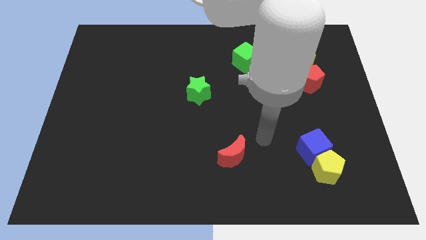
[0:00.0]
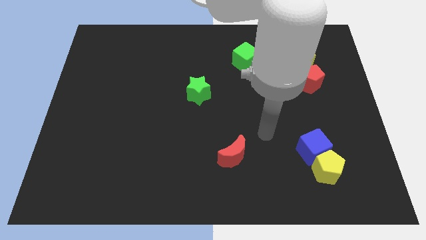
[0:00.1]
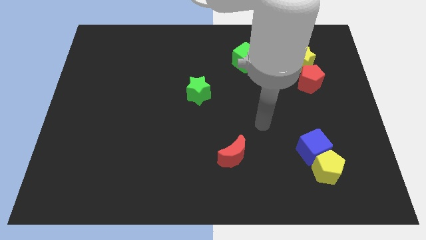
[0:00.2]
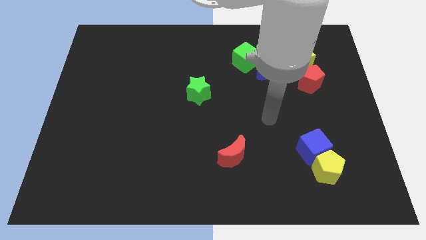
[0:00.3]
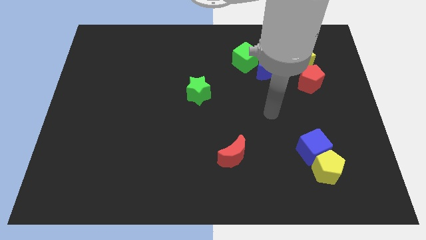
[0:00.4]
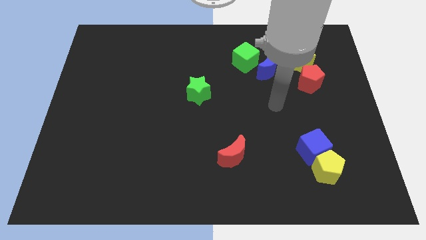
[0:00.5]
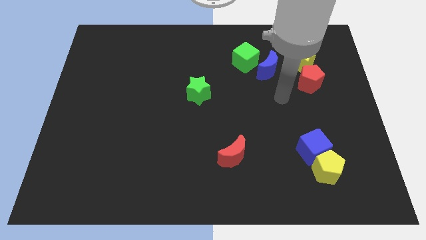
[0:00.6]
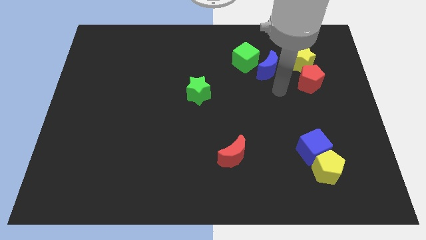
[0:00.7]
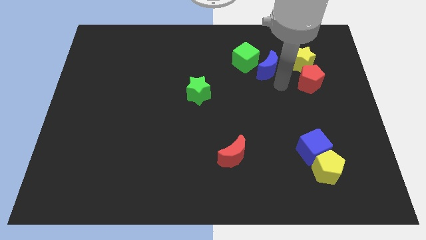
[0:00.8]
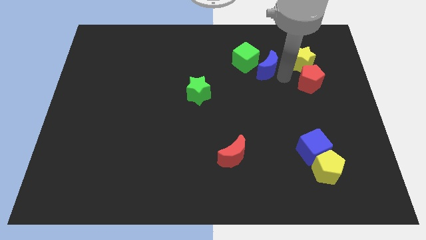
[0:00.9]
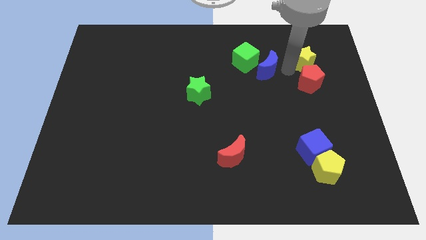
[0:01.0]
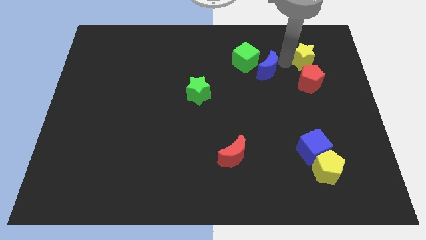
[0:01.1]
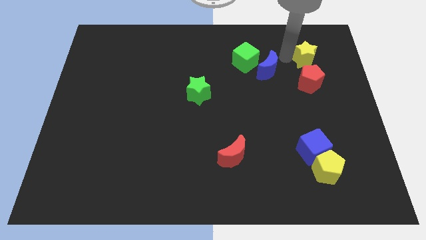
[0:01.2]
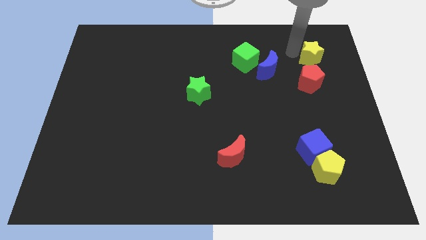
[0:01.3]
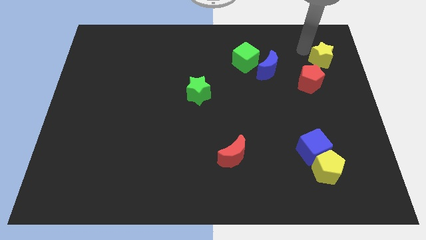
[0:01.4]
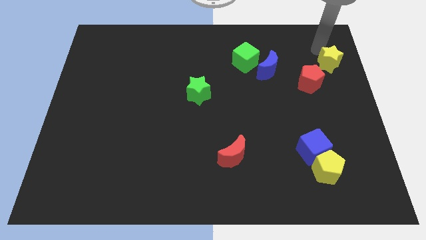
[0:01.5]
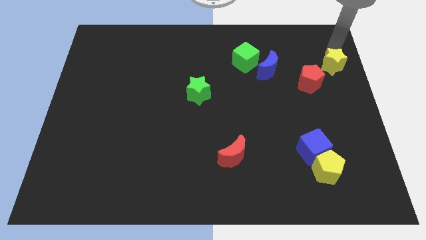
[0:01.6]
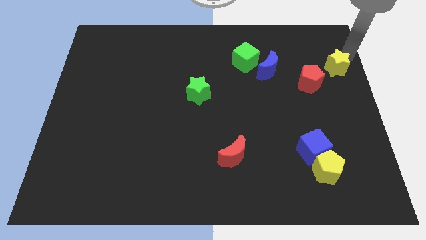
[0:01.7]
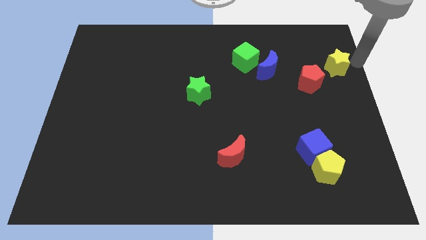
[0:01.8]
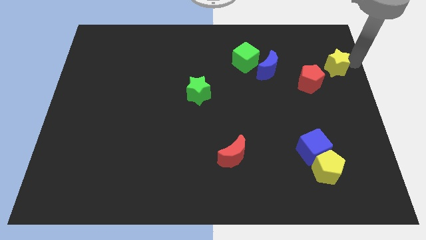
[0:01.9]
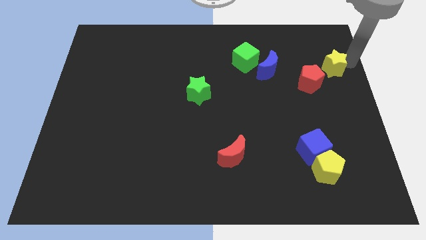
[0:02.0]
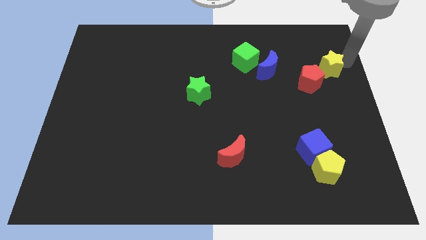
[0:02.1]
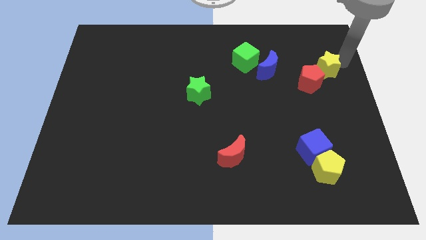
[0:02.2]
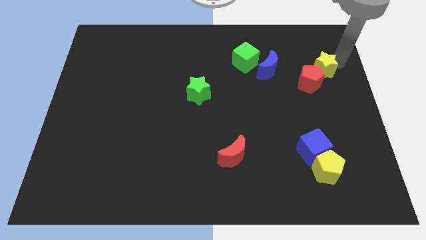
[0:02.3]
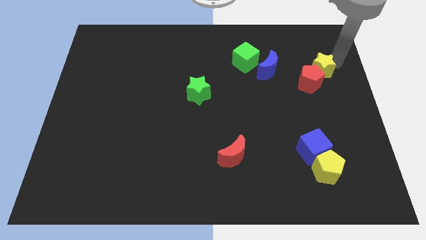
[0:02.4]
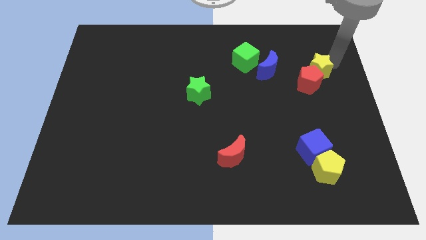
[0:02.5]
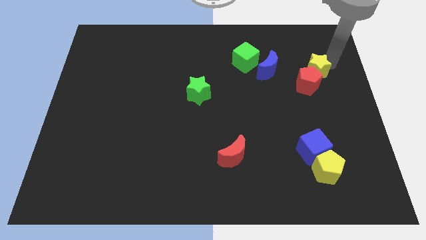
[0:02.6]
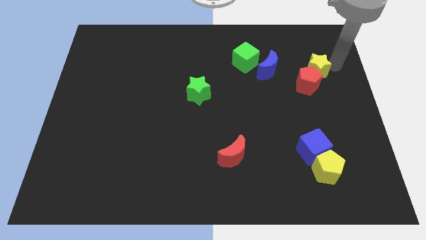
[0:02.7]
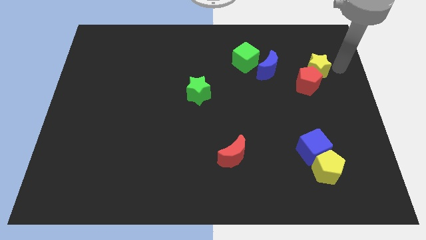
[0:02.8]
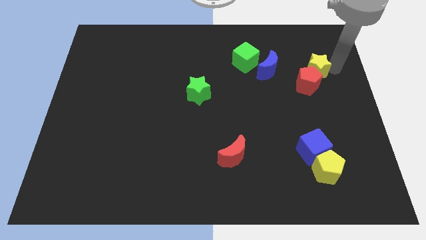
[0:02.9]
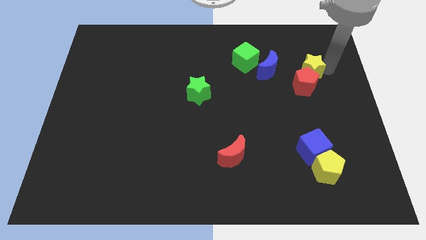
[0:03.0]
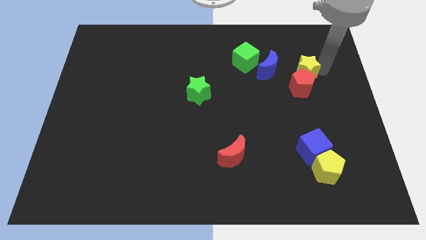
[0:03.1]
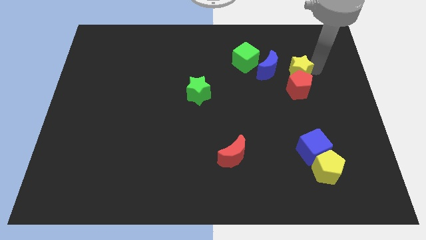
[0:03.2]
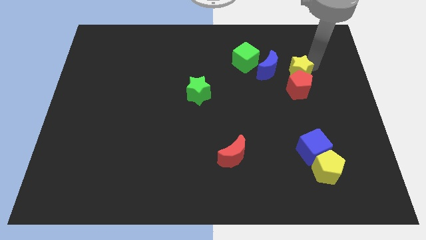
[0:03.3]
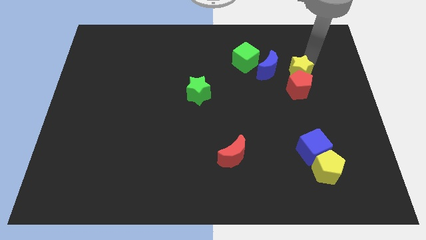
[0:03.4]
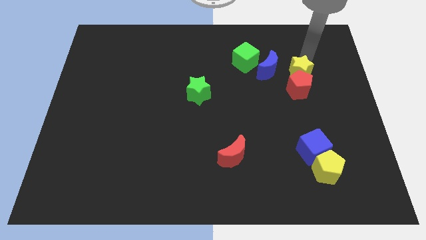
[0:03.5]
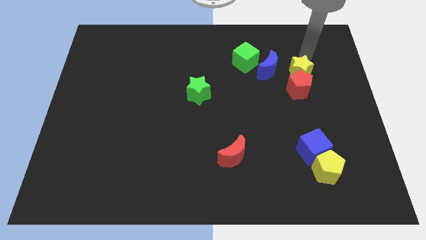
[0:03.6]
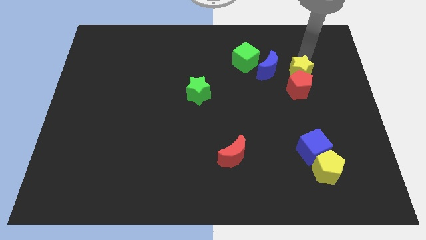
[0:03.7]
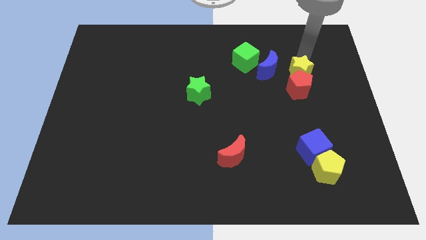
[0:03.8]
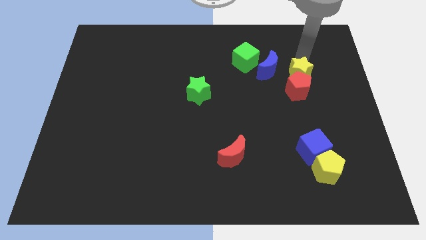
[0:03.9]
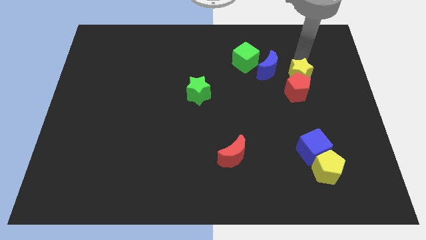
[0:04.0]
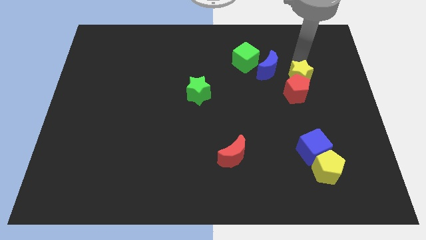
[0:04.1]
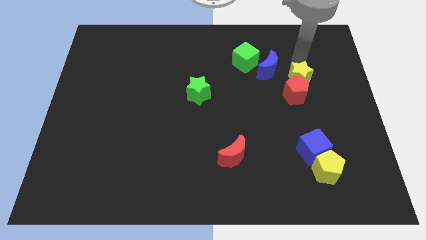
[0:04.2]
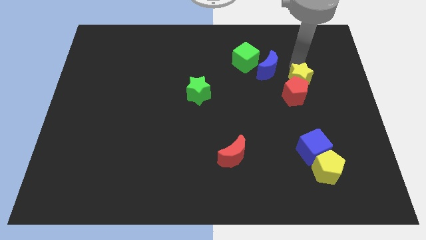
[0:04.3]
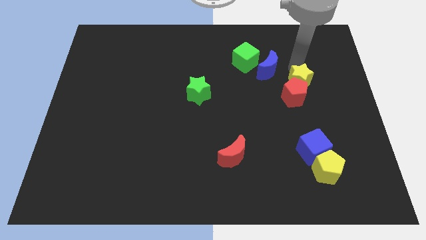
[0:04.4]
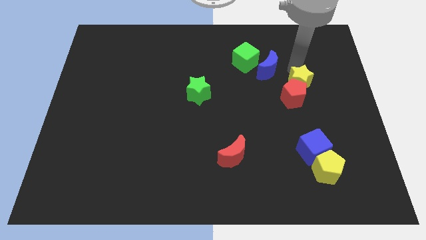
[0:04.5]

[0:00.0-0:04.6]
slide the yellow star somewhat downwards

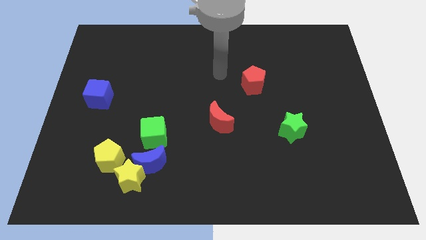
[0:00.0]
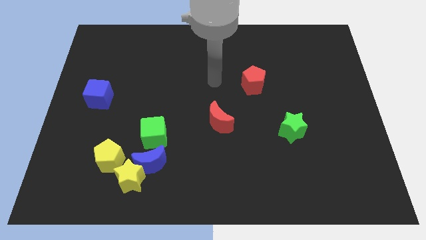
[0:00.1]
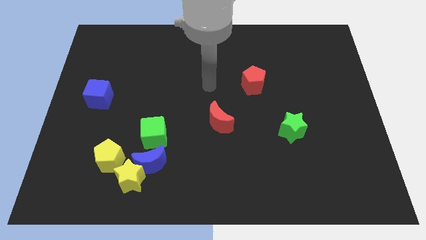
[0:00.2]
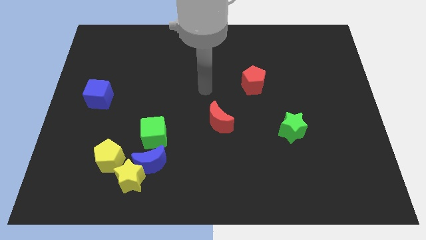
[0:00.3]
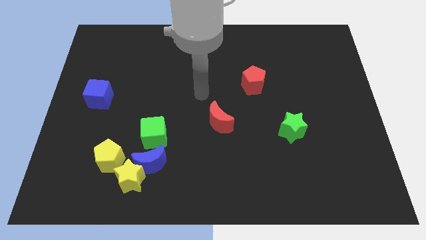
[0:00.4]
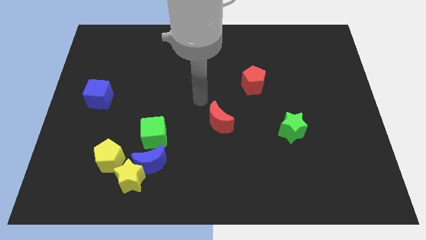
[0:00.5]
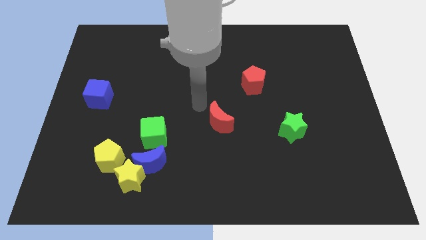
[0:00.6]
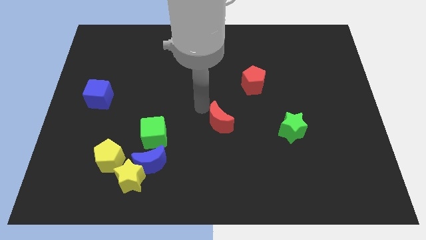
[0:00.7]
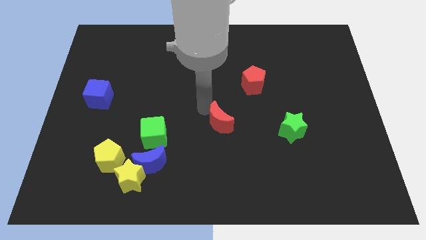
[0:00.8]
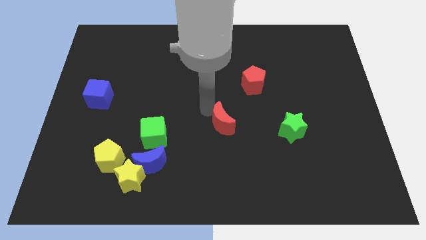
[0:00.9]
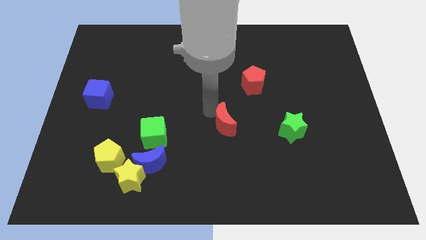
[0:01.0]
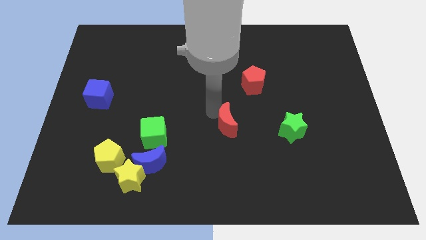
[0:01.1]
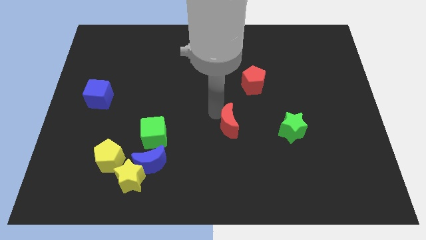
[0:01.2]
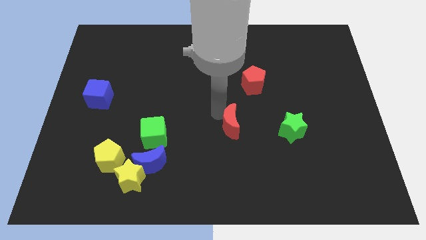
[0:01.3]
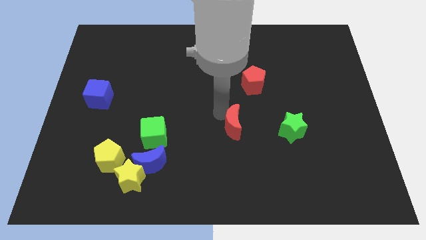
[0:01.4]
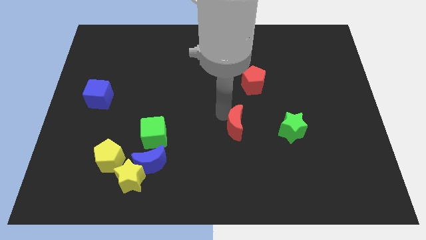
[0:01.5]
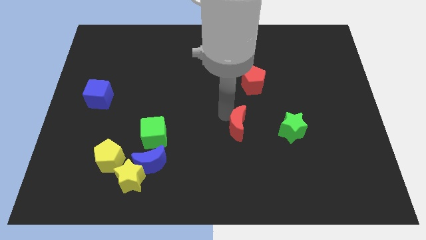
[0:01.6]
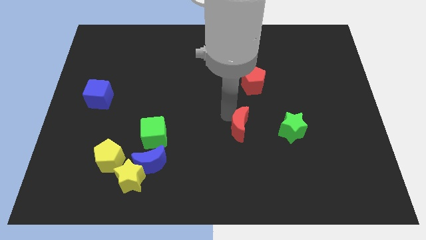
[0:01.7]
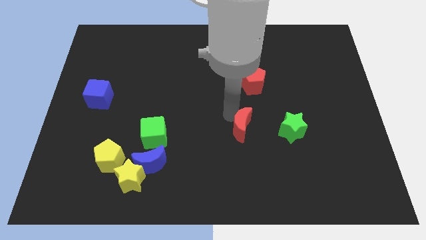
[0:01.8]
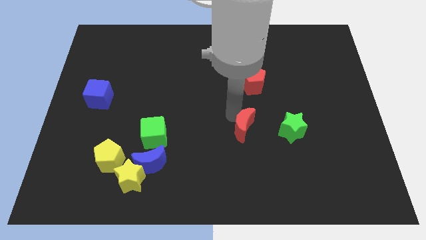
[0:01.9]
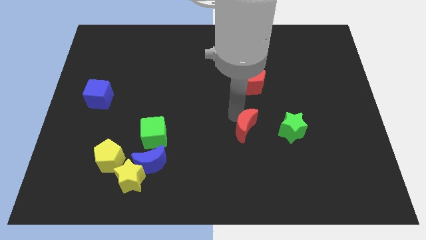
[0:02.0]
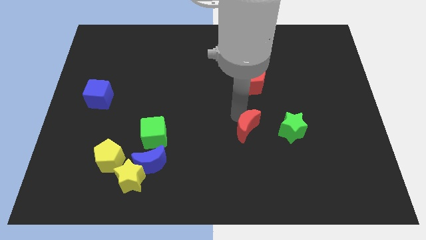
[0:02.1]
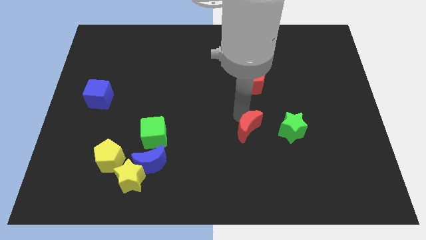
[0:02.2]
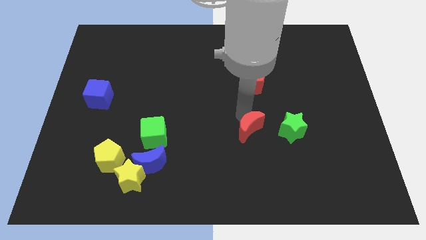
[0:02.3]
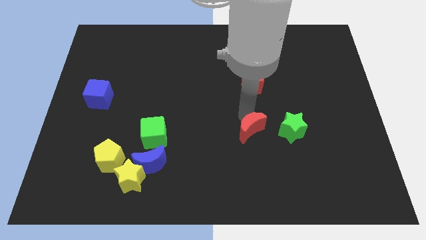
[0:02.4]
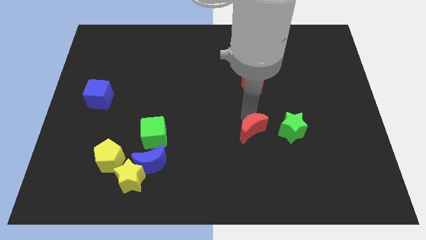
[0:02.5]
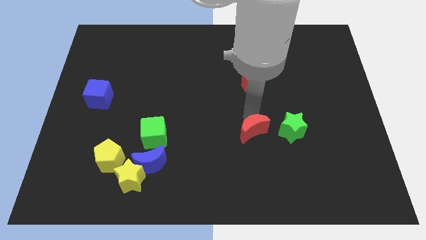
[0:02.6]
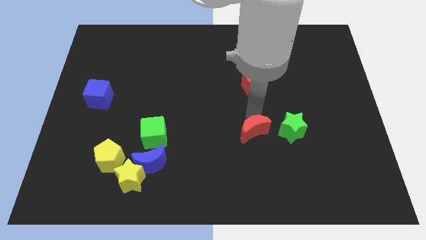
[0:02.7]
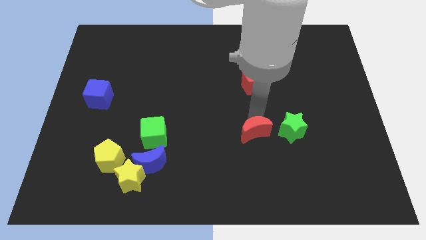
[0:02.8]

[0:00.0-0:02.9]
move the red moon diagonally down and right a little bit

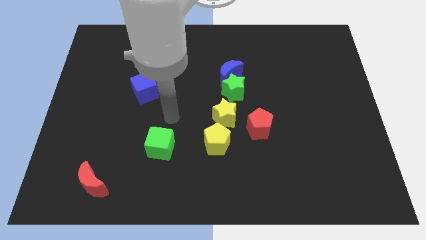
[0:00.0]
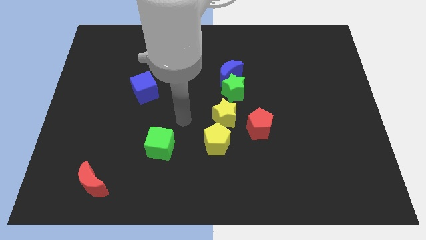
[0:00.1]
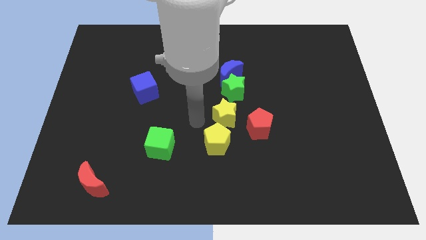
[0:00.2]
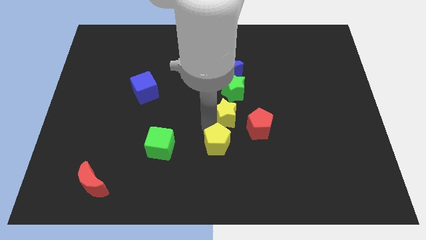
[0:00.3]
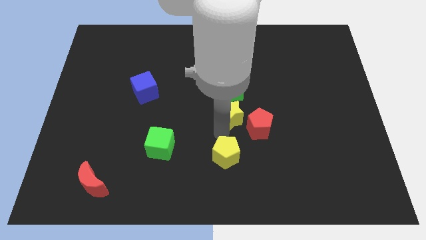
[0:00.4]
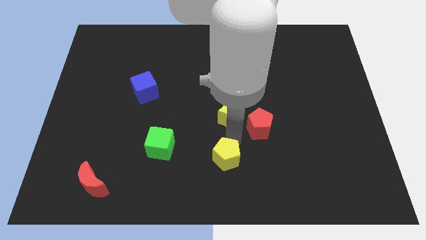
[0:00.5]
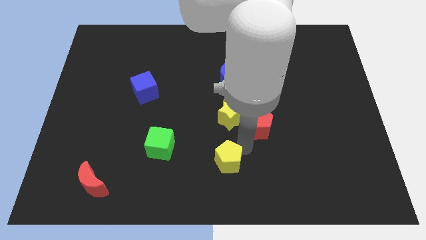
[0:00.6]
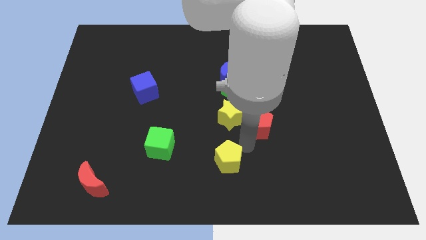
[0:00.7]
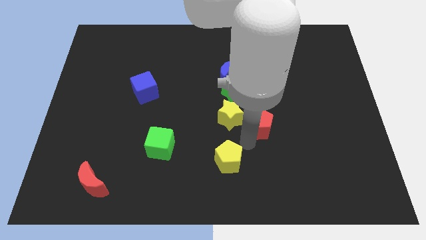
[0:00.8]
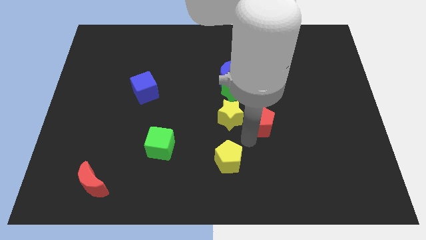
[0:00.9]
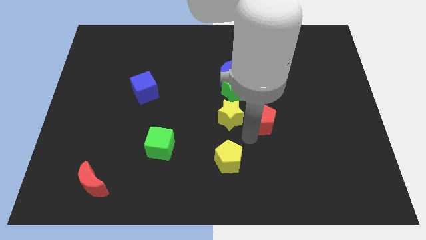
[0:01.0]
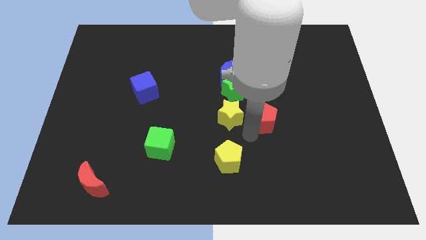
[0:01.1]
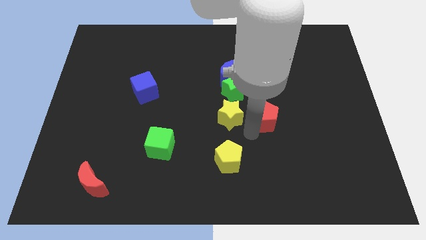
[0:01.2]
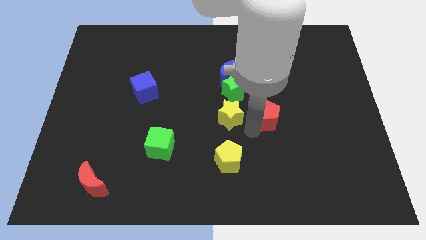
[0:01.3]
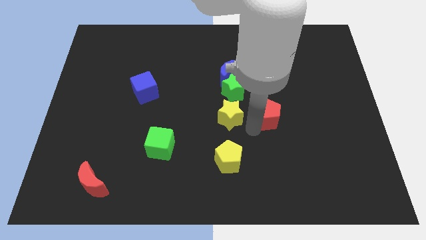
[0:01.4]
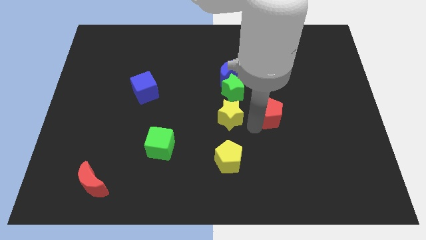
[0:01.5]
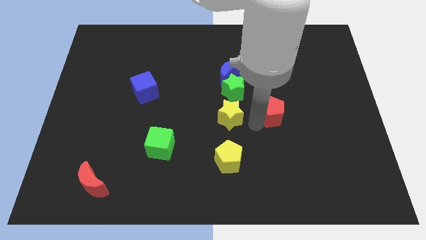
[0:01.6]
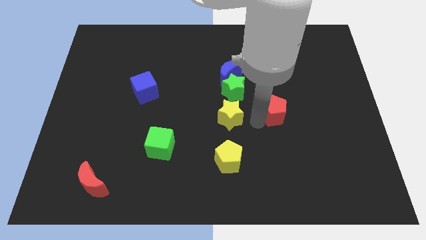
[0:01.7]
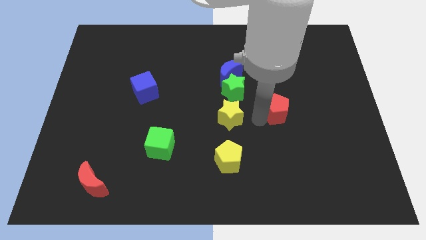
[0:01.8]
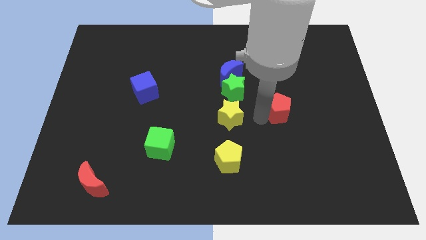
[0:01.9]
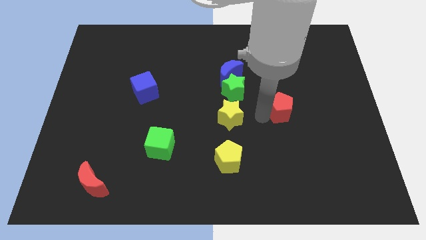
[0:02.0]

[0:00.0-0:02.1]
slide the red pentagon a little upwards and to the right
